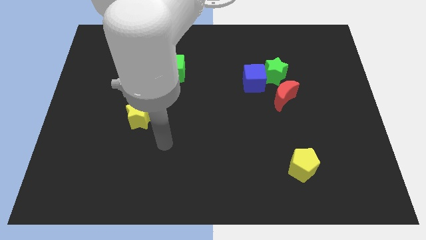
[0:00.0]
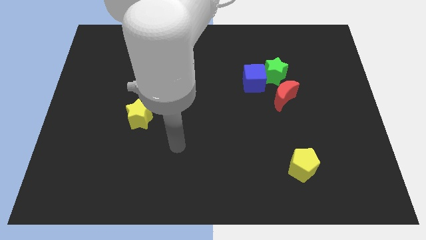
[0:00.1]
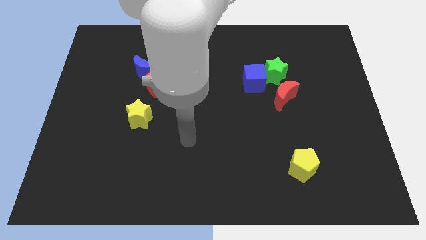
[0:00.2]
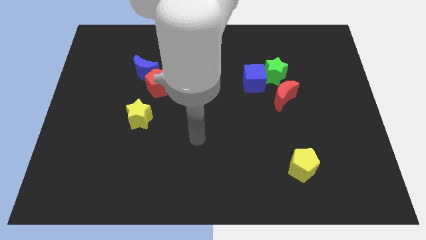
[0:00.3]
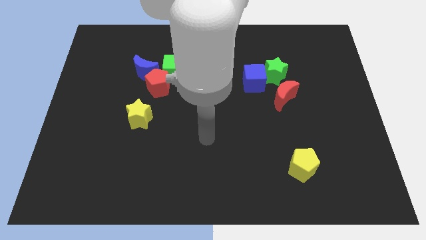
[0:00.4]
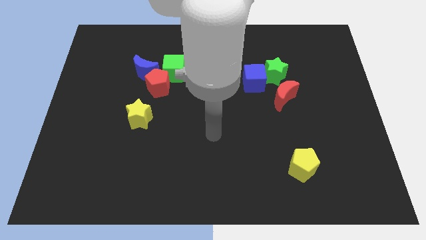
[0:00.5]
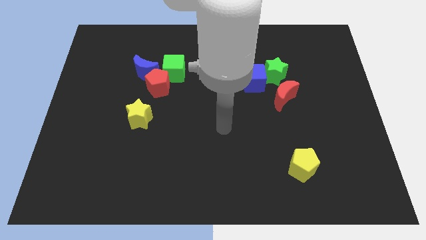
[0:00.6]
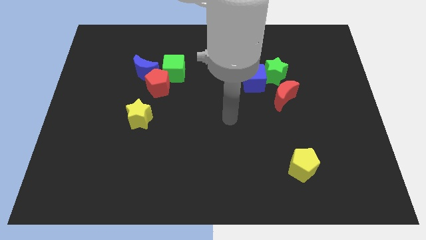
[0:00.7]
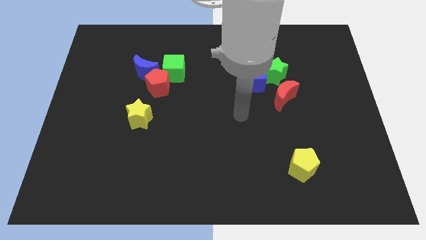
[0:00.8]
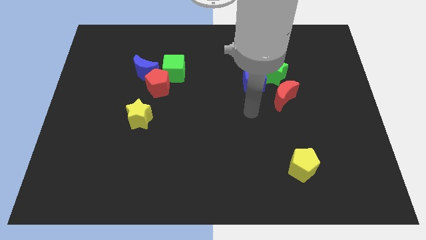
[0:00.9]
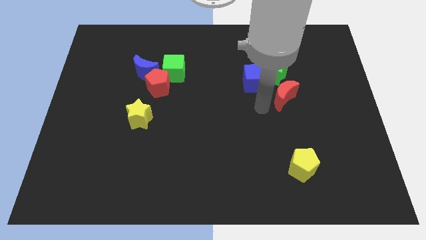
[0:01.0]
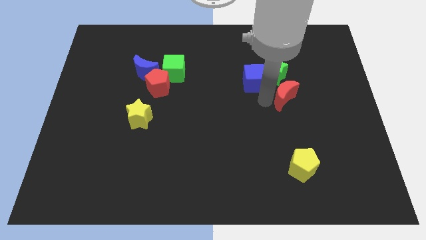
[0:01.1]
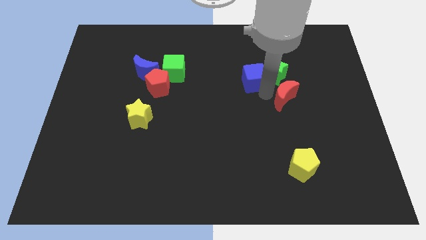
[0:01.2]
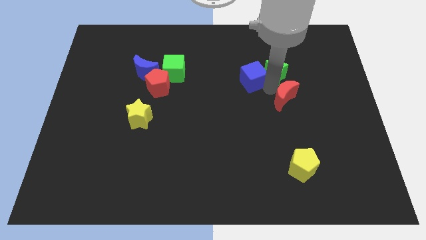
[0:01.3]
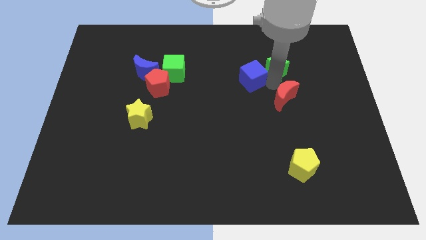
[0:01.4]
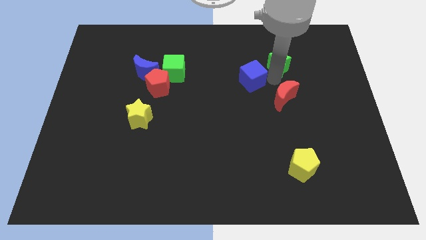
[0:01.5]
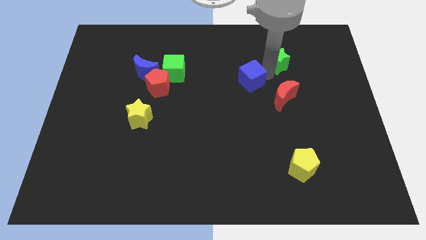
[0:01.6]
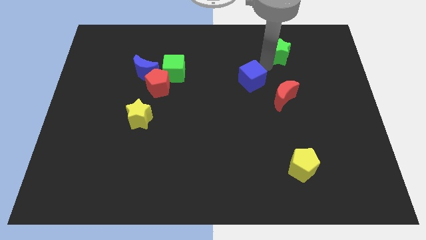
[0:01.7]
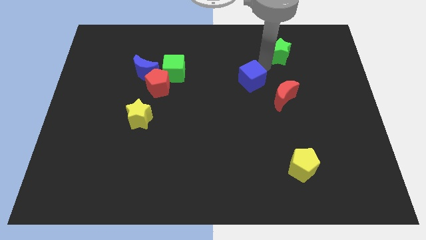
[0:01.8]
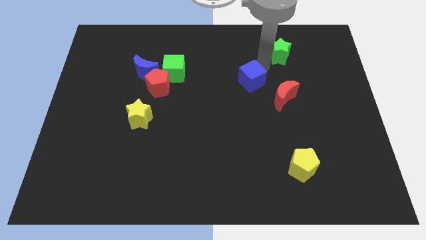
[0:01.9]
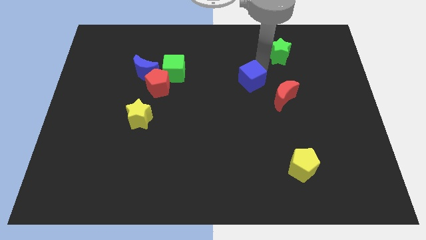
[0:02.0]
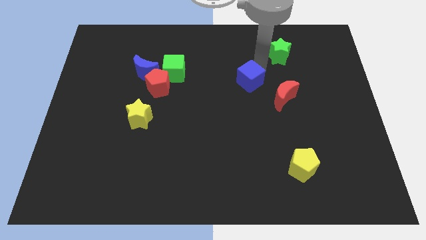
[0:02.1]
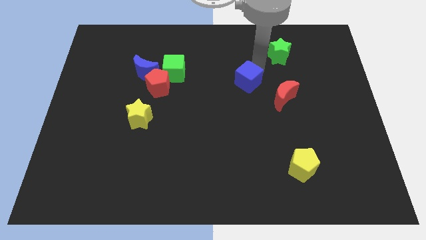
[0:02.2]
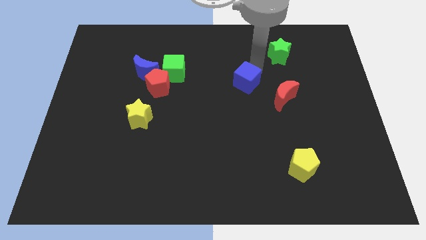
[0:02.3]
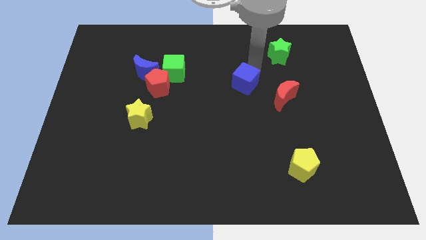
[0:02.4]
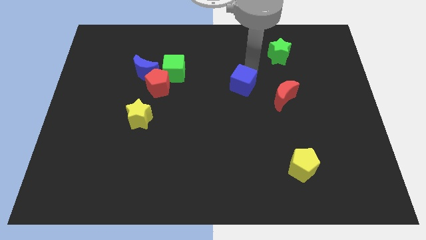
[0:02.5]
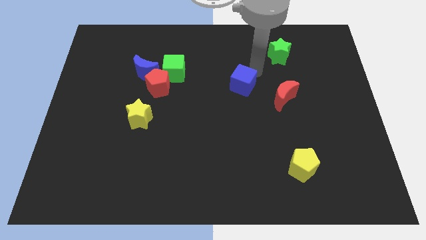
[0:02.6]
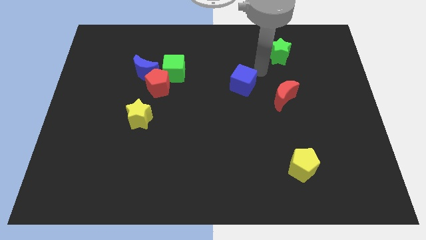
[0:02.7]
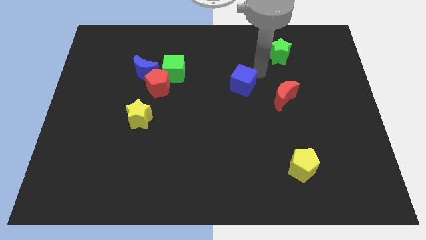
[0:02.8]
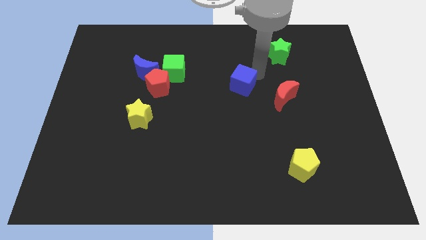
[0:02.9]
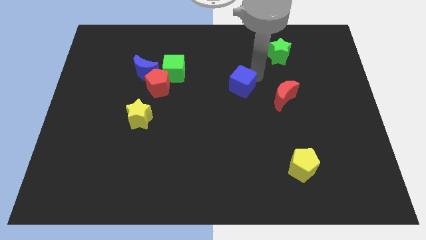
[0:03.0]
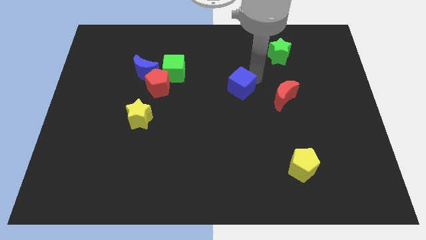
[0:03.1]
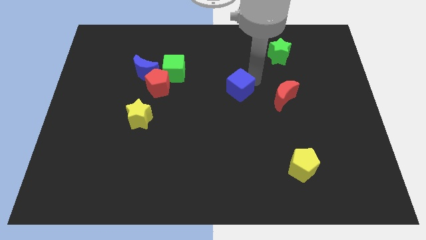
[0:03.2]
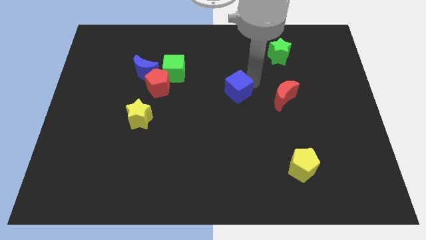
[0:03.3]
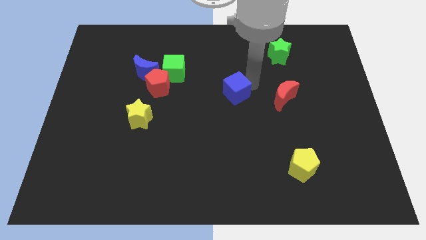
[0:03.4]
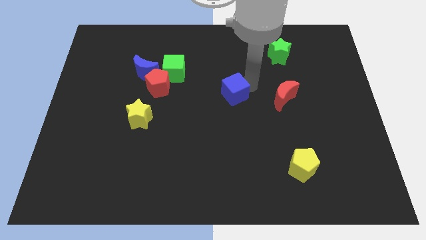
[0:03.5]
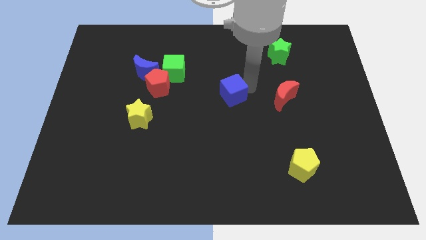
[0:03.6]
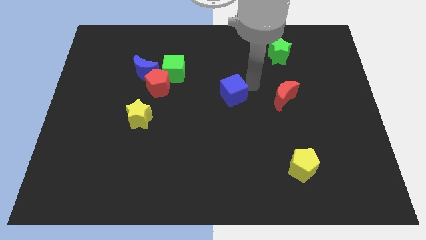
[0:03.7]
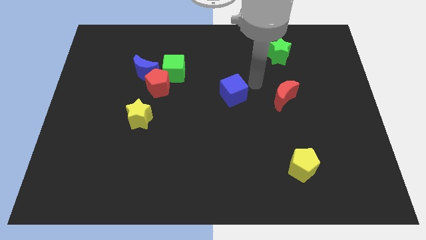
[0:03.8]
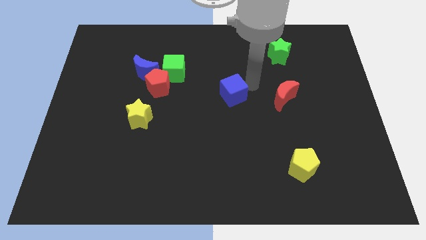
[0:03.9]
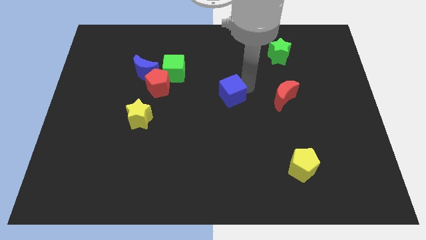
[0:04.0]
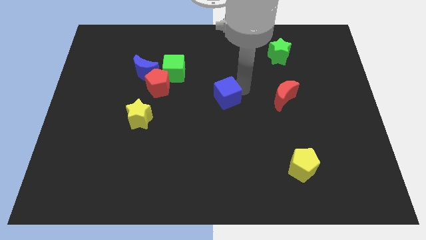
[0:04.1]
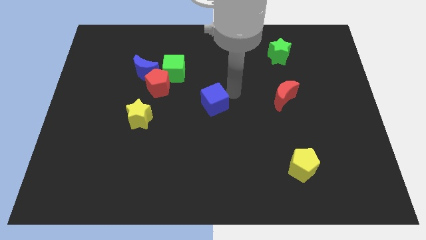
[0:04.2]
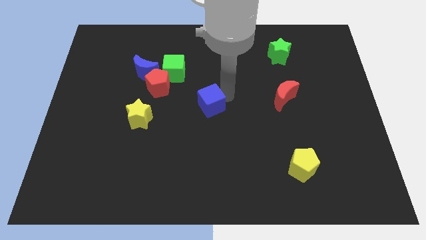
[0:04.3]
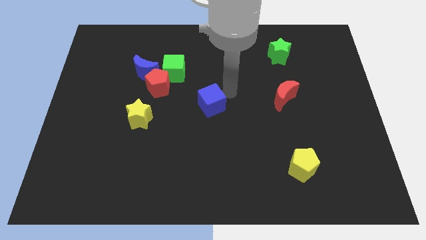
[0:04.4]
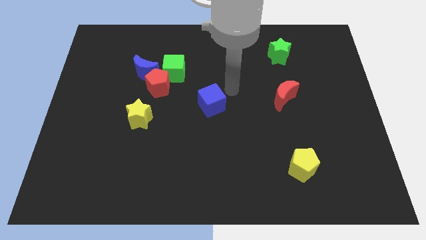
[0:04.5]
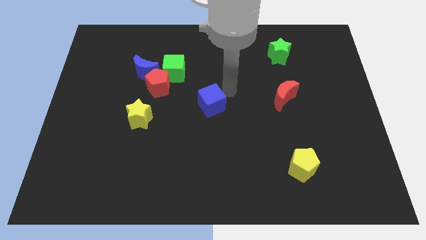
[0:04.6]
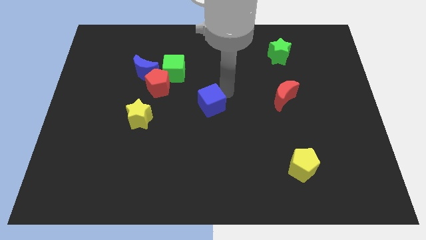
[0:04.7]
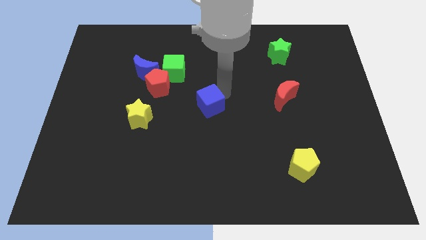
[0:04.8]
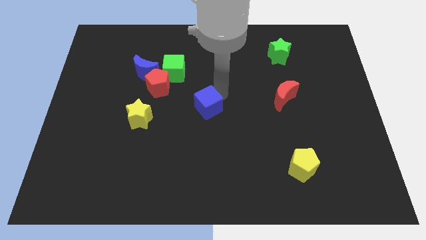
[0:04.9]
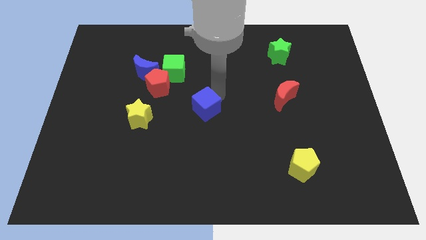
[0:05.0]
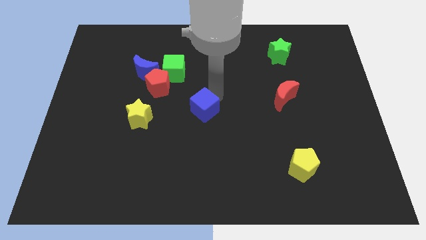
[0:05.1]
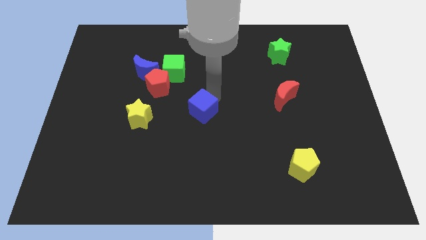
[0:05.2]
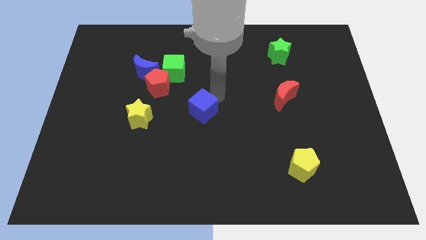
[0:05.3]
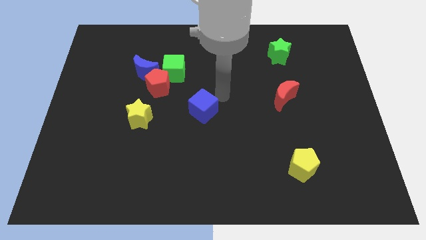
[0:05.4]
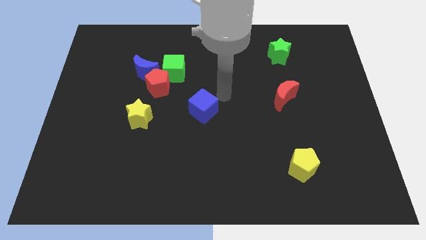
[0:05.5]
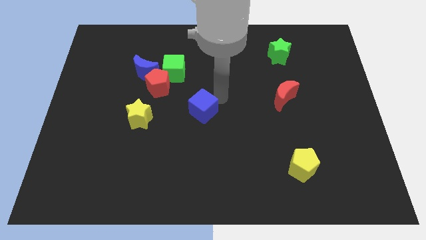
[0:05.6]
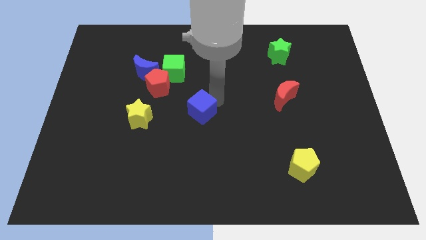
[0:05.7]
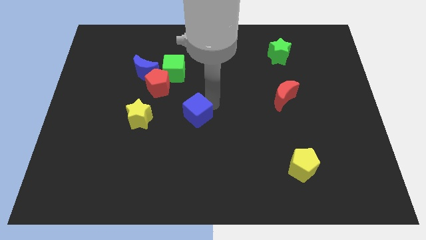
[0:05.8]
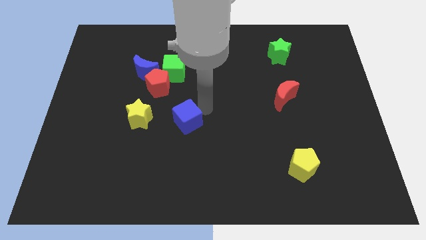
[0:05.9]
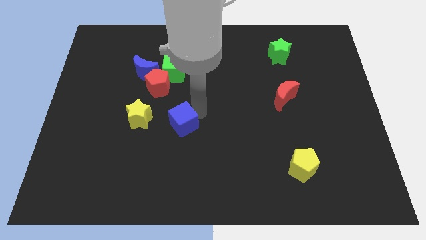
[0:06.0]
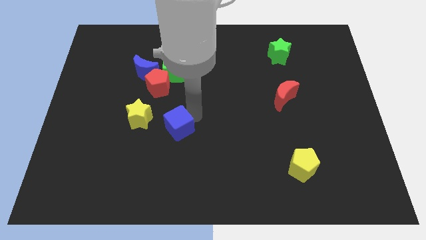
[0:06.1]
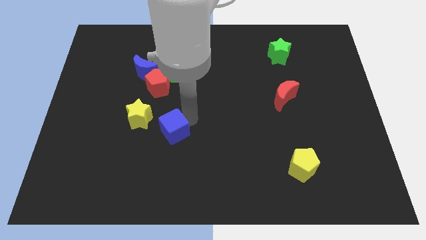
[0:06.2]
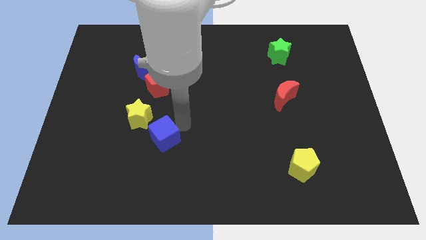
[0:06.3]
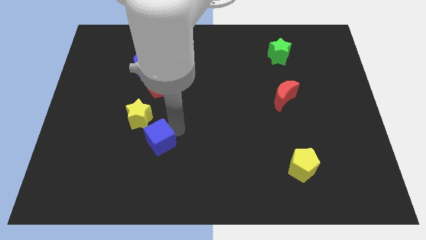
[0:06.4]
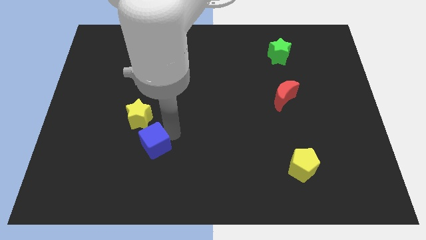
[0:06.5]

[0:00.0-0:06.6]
push the blue cube below the yellow star

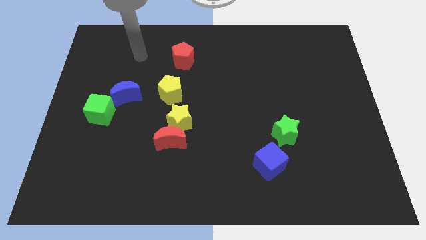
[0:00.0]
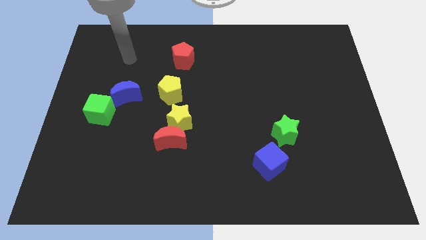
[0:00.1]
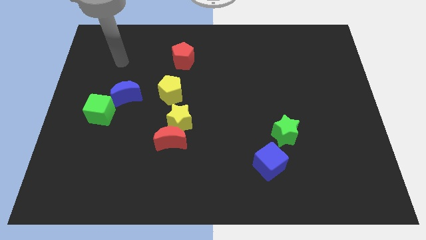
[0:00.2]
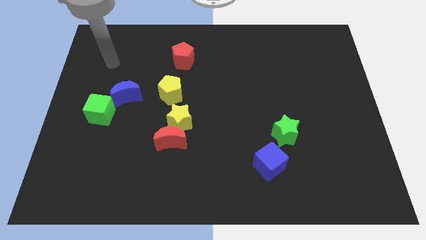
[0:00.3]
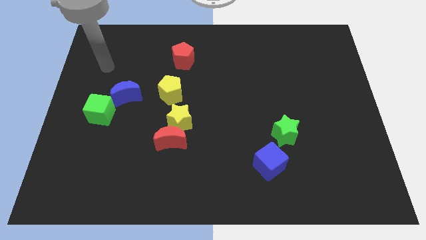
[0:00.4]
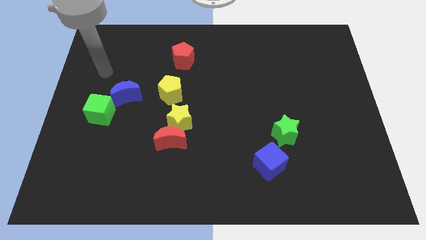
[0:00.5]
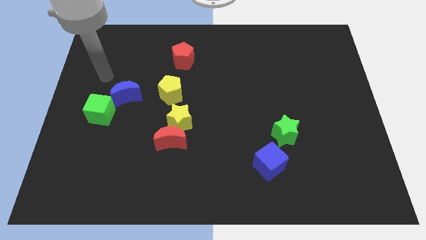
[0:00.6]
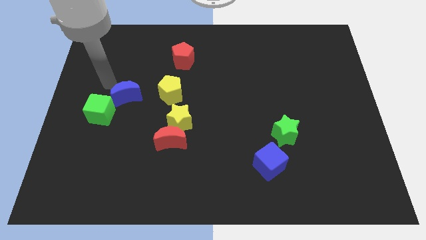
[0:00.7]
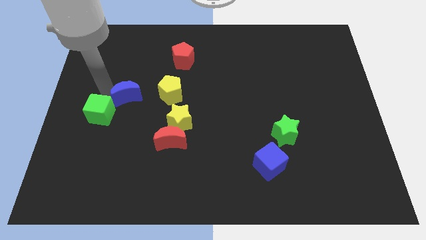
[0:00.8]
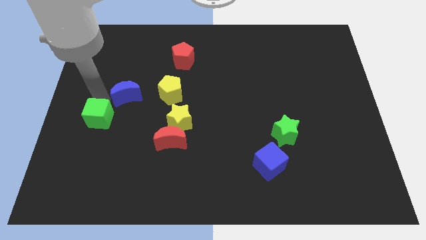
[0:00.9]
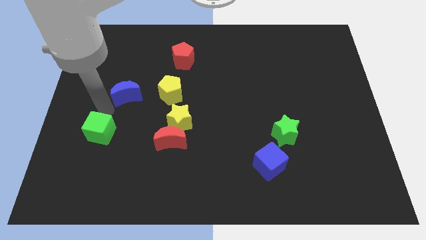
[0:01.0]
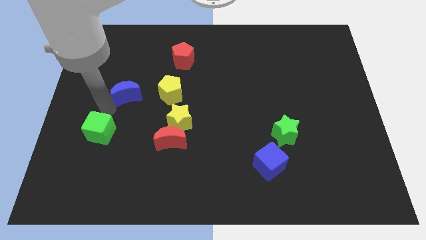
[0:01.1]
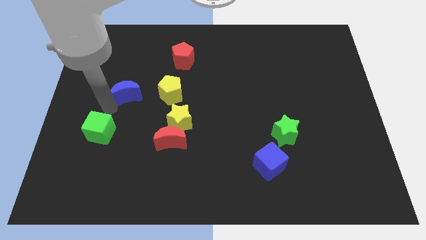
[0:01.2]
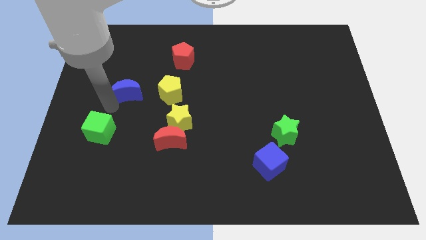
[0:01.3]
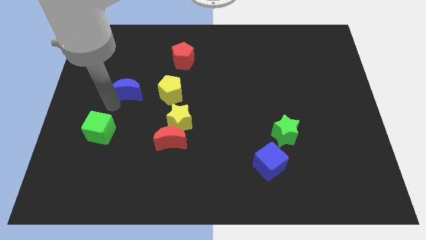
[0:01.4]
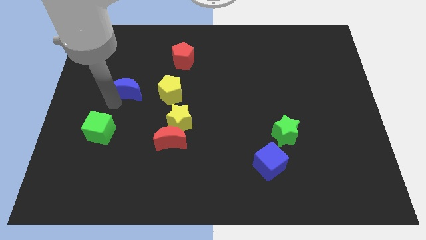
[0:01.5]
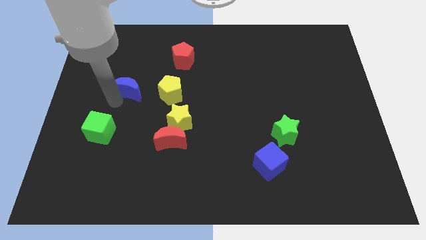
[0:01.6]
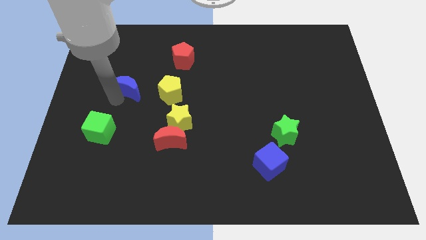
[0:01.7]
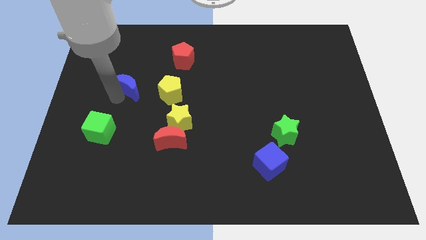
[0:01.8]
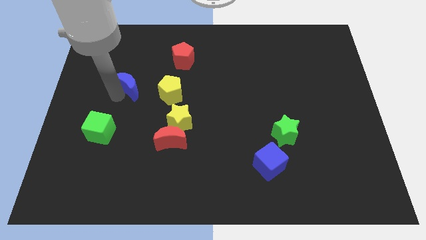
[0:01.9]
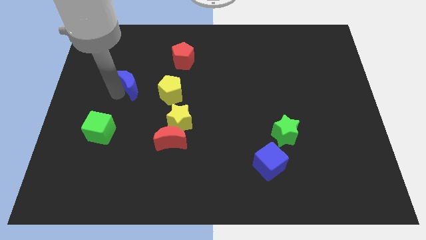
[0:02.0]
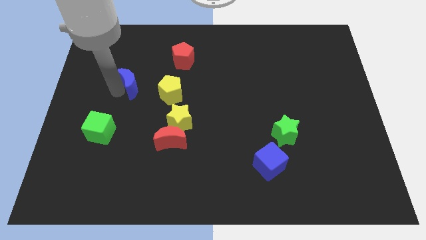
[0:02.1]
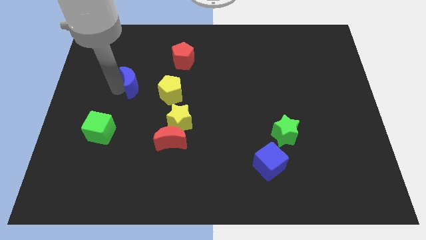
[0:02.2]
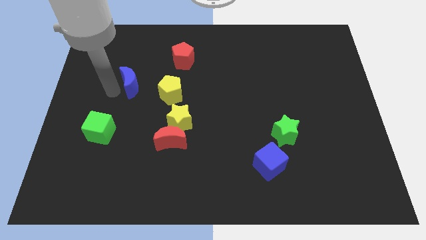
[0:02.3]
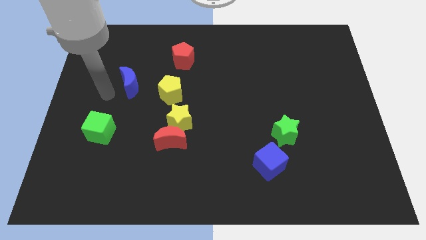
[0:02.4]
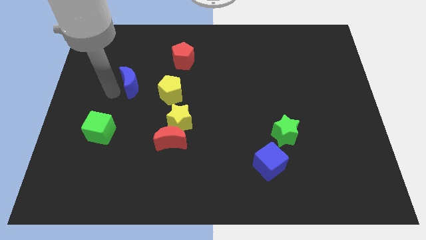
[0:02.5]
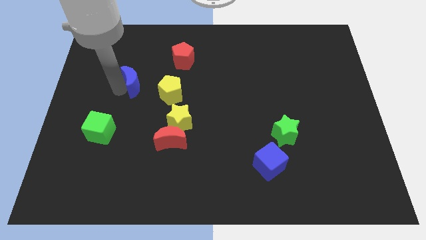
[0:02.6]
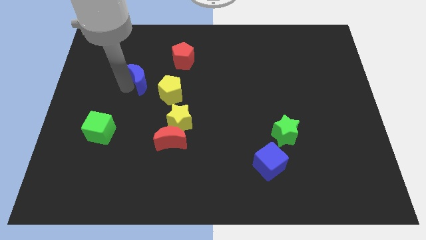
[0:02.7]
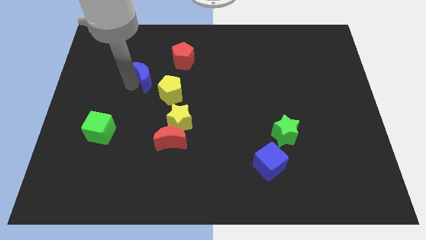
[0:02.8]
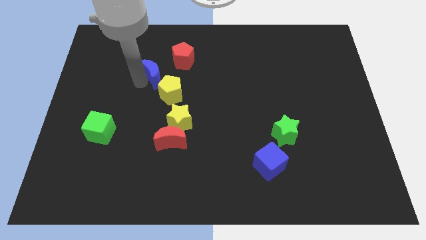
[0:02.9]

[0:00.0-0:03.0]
move the blue moon above the yellow pentagon
